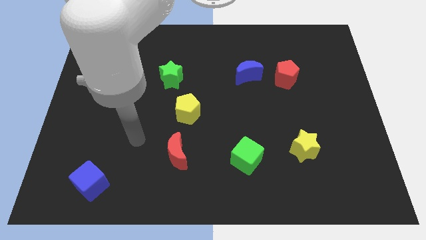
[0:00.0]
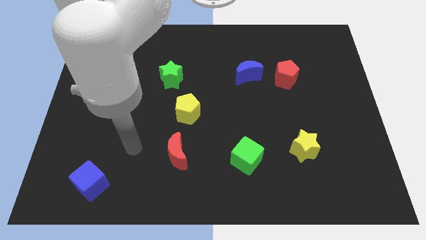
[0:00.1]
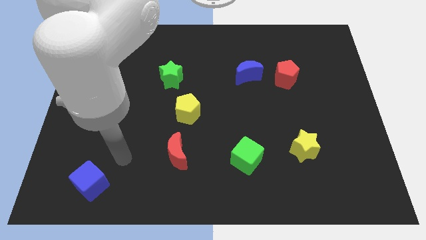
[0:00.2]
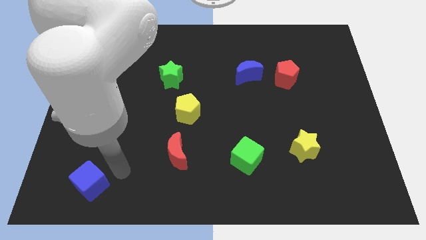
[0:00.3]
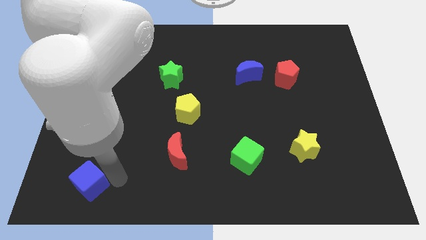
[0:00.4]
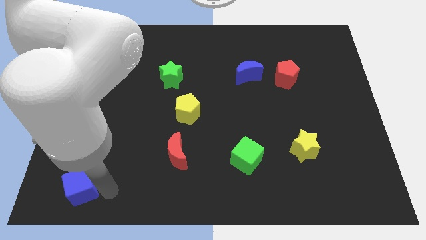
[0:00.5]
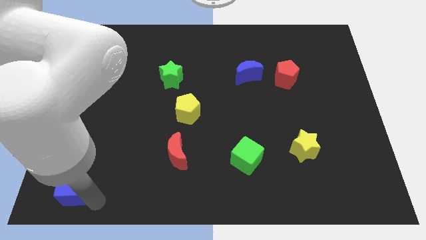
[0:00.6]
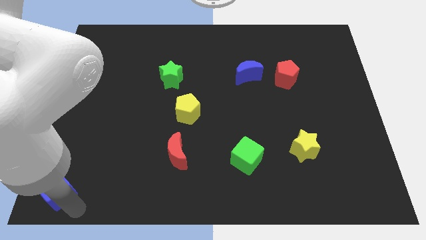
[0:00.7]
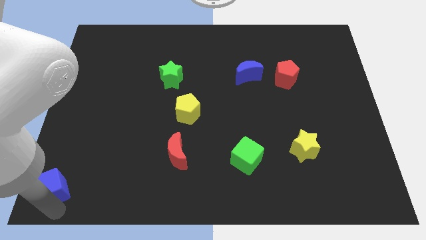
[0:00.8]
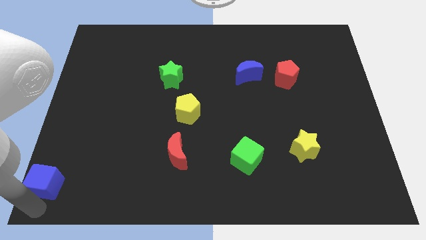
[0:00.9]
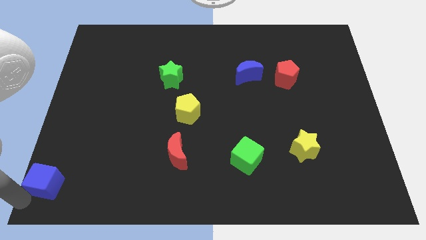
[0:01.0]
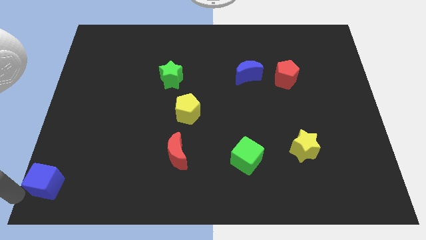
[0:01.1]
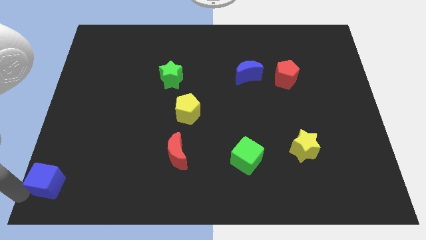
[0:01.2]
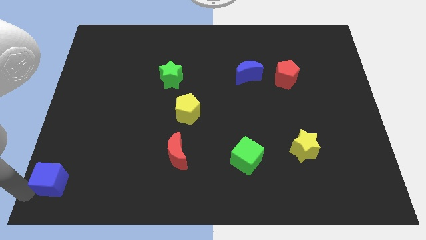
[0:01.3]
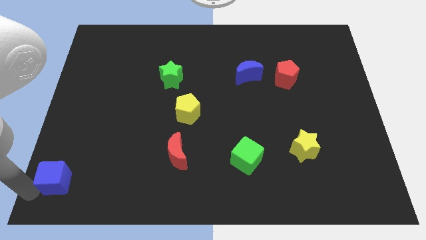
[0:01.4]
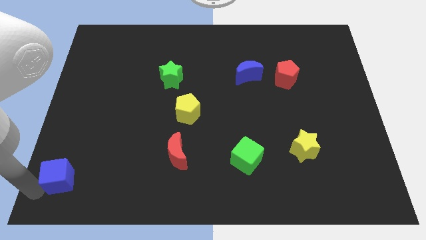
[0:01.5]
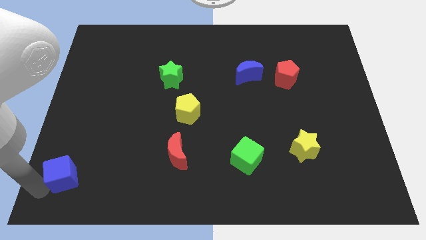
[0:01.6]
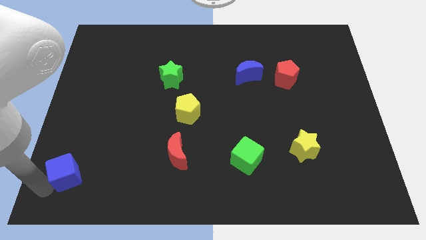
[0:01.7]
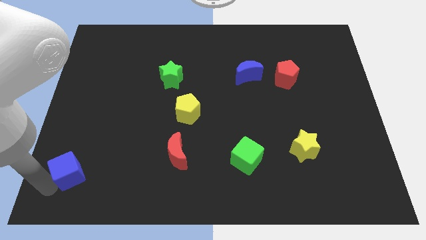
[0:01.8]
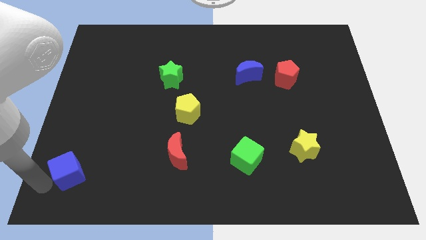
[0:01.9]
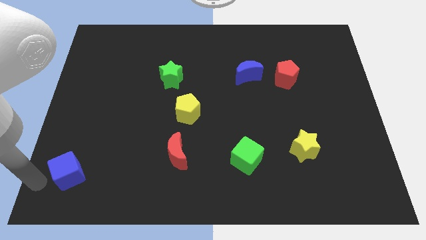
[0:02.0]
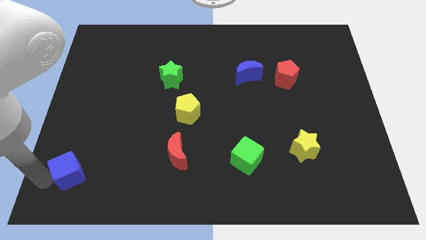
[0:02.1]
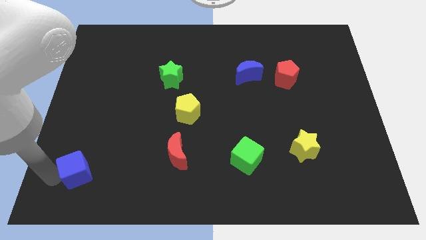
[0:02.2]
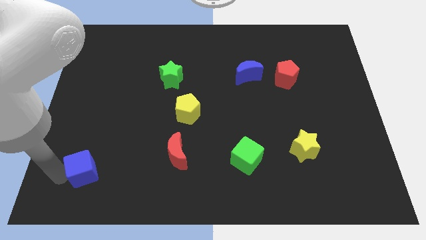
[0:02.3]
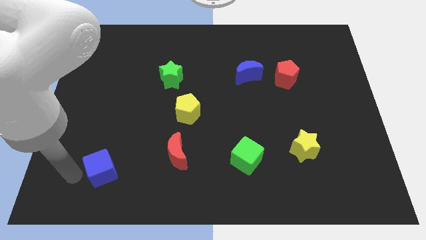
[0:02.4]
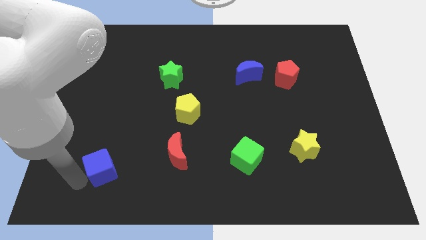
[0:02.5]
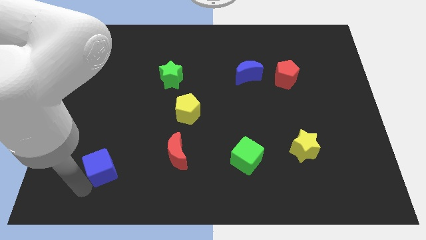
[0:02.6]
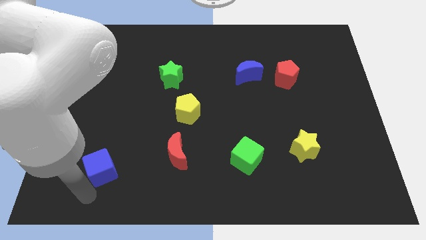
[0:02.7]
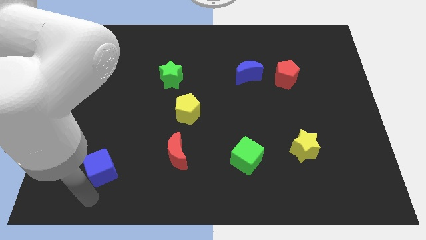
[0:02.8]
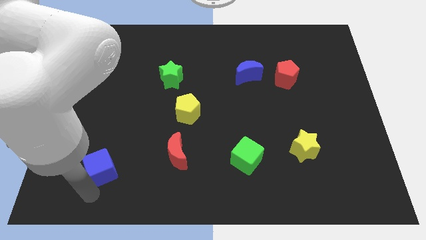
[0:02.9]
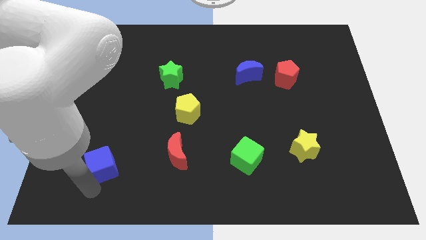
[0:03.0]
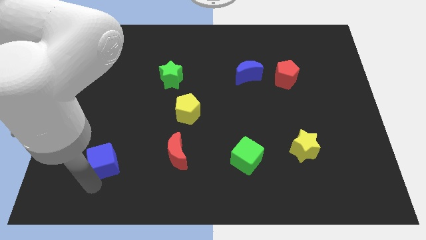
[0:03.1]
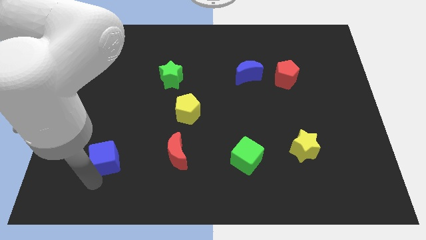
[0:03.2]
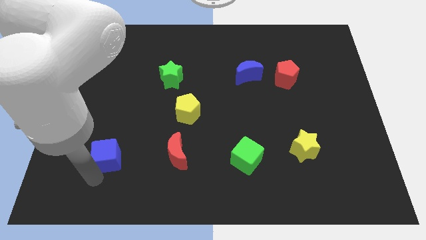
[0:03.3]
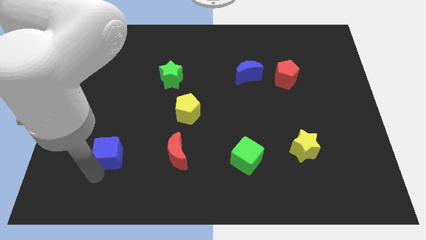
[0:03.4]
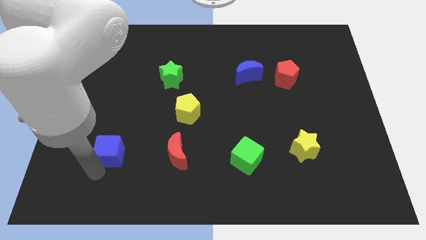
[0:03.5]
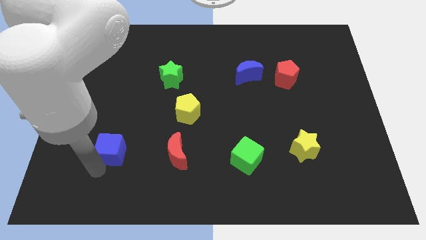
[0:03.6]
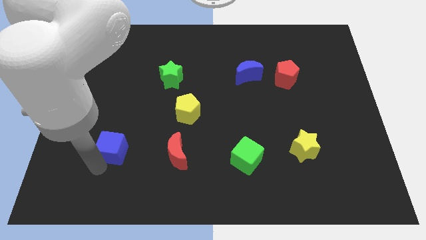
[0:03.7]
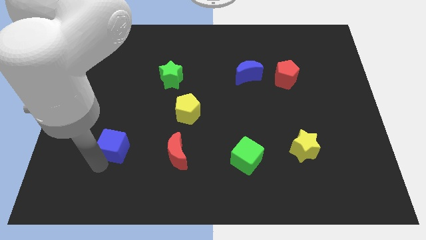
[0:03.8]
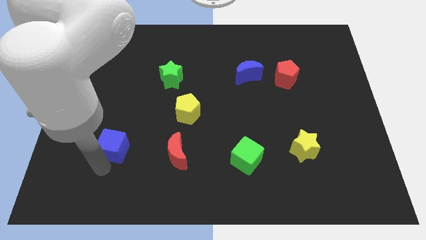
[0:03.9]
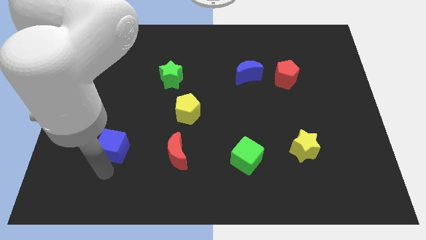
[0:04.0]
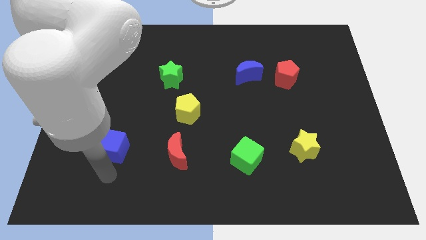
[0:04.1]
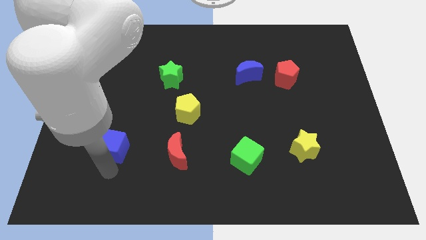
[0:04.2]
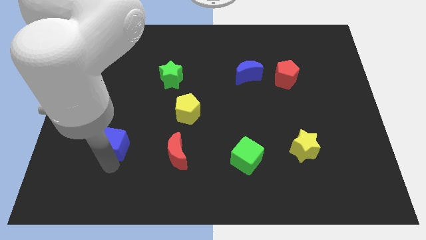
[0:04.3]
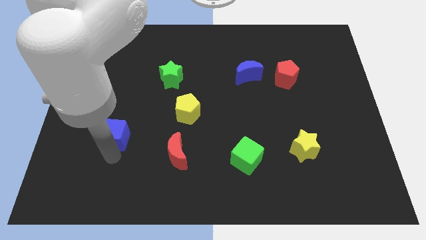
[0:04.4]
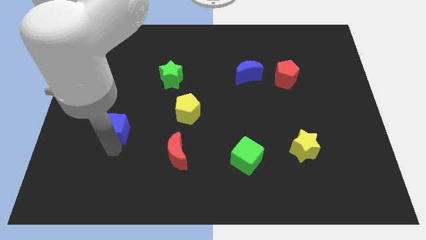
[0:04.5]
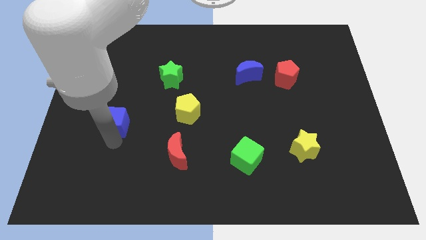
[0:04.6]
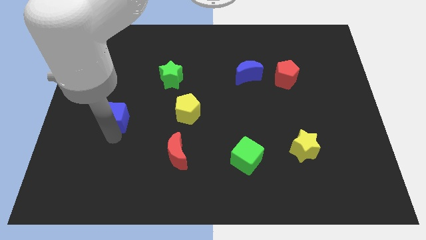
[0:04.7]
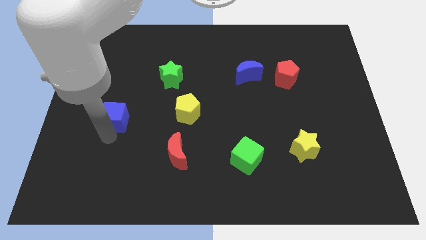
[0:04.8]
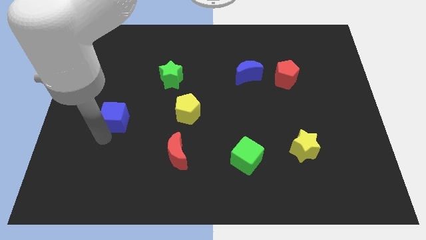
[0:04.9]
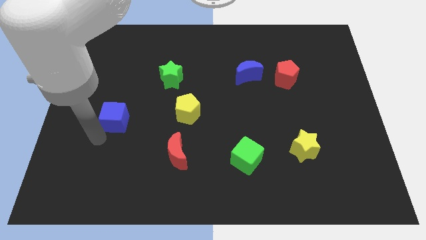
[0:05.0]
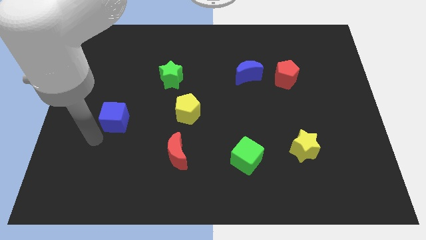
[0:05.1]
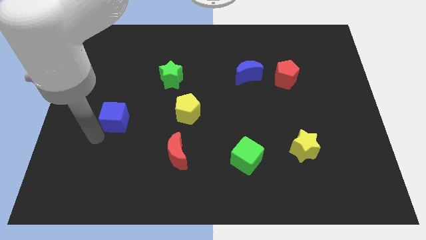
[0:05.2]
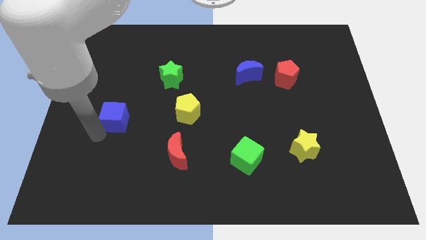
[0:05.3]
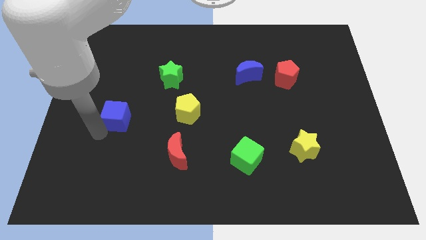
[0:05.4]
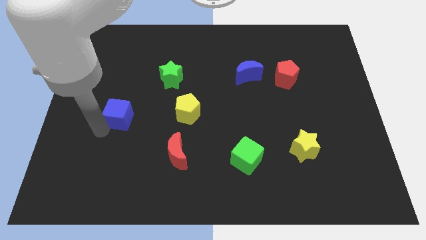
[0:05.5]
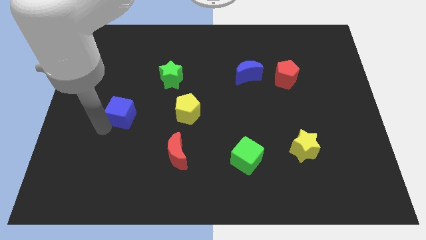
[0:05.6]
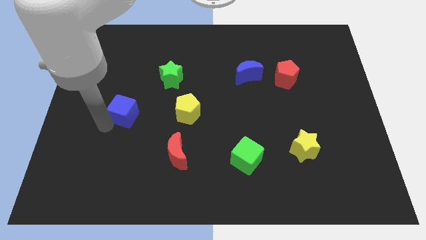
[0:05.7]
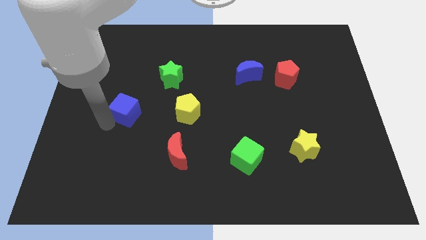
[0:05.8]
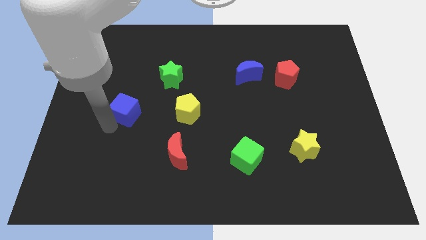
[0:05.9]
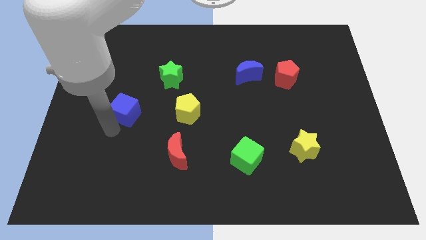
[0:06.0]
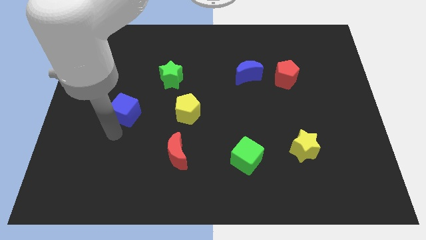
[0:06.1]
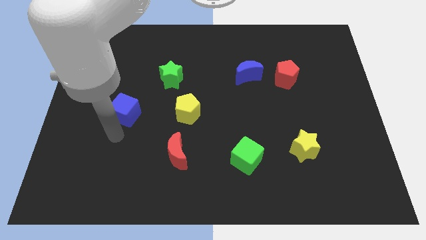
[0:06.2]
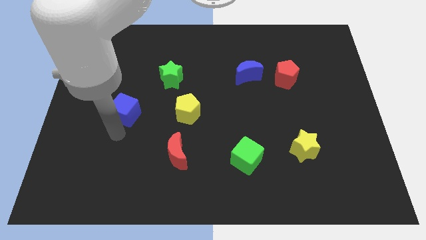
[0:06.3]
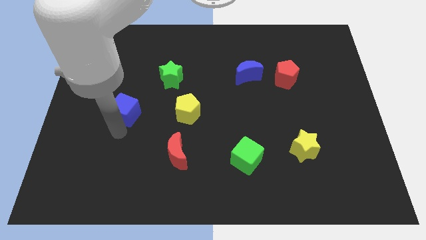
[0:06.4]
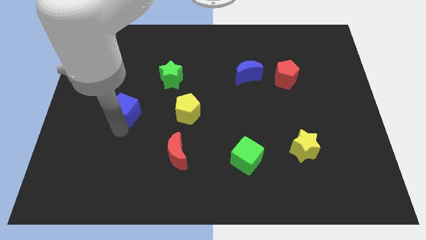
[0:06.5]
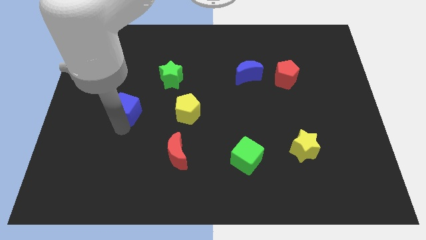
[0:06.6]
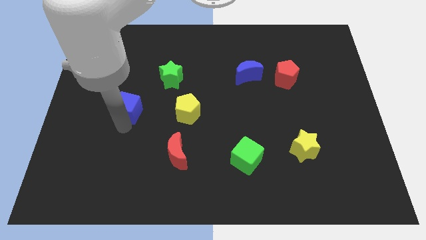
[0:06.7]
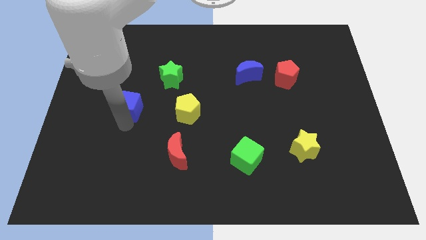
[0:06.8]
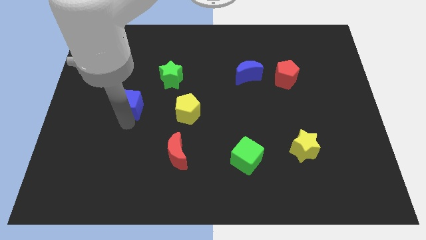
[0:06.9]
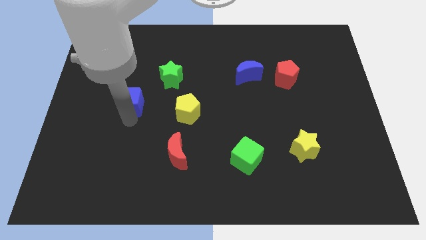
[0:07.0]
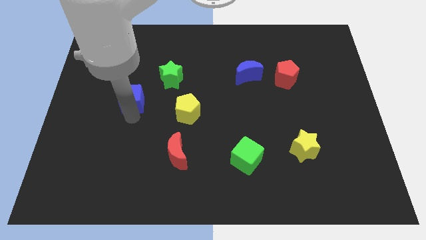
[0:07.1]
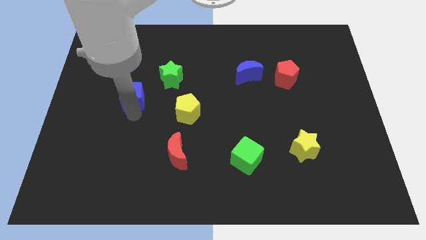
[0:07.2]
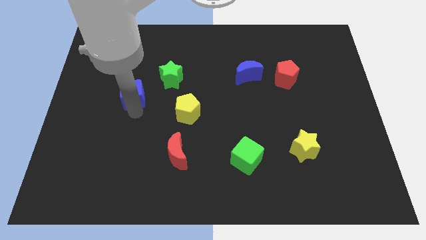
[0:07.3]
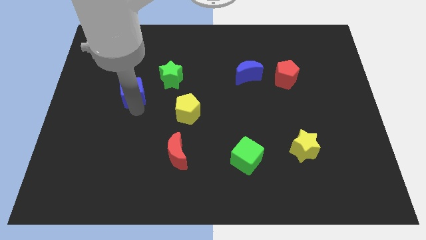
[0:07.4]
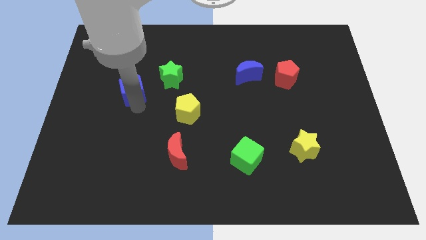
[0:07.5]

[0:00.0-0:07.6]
put the blue cube just left of the green star
